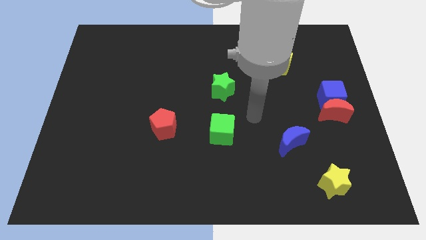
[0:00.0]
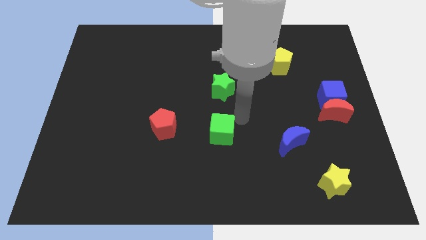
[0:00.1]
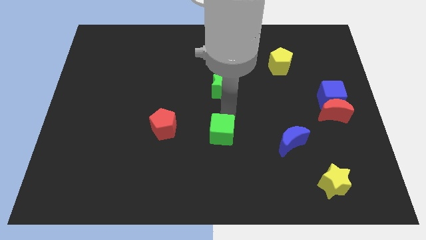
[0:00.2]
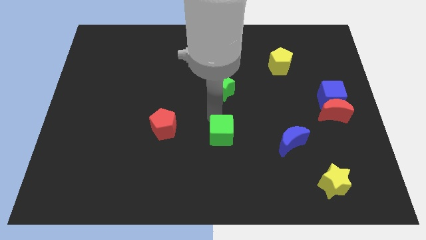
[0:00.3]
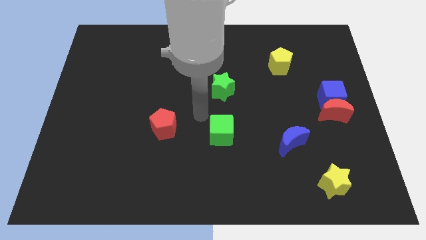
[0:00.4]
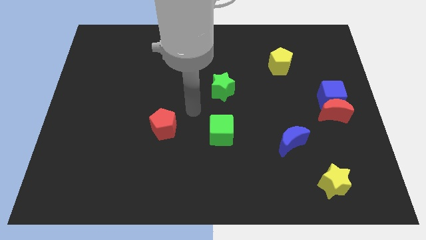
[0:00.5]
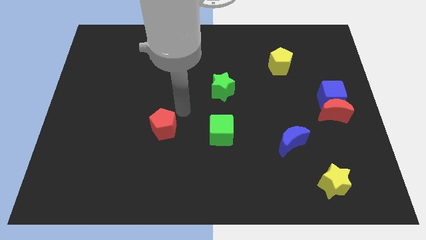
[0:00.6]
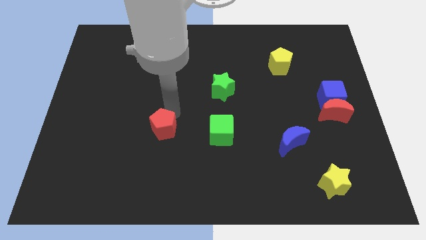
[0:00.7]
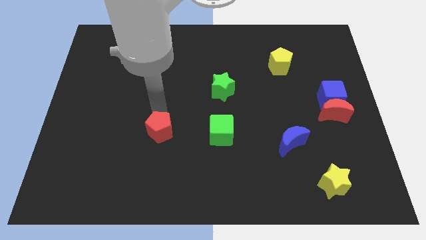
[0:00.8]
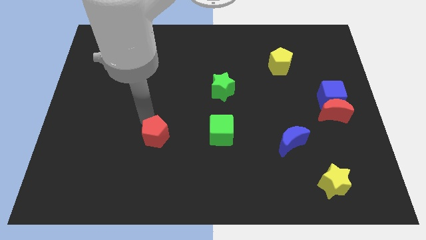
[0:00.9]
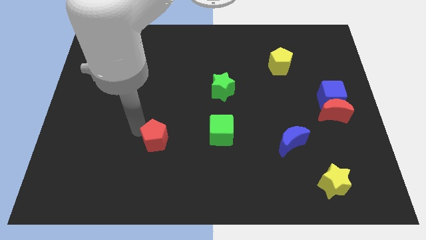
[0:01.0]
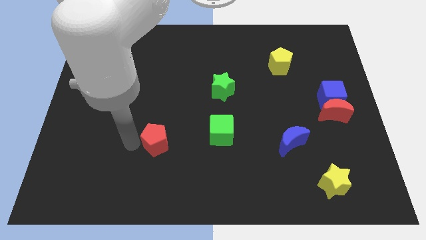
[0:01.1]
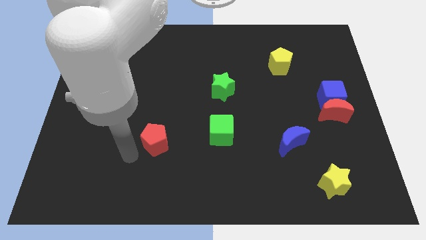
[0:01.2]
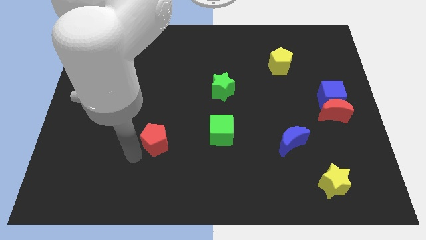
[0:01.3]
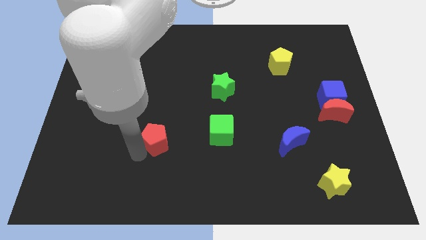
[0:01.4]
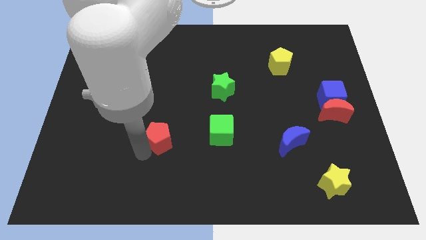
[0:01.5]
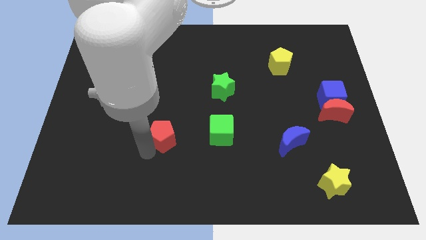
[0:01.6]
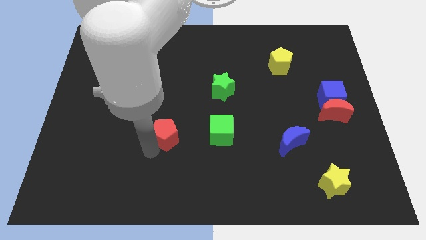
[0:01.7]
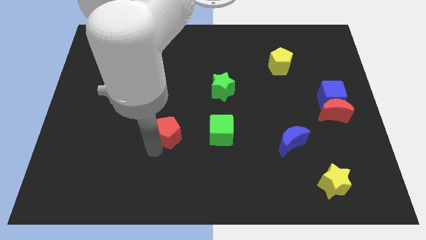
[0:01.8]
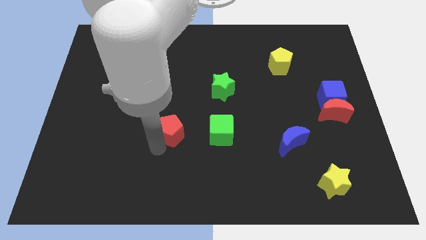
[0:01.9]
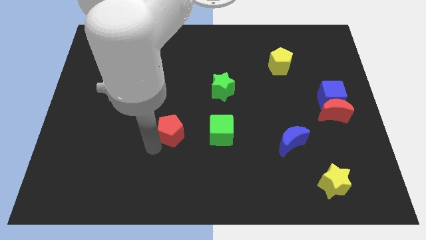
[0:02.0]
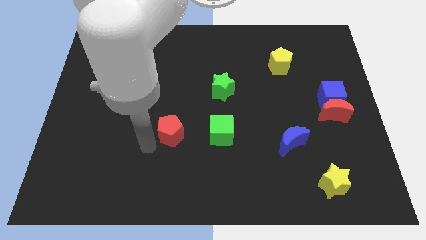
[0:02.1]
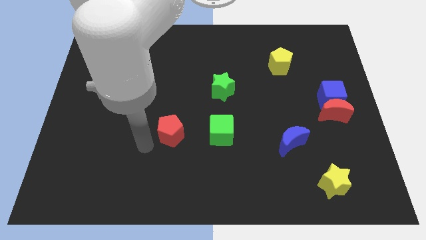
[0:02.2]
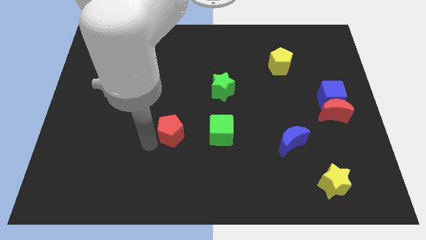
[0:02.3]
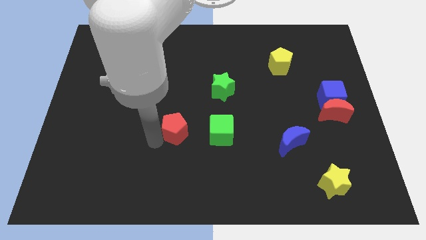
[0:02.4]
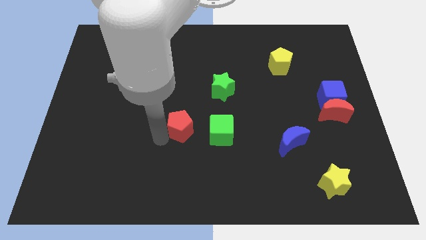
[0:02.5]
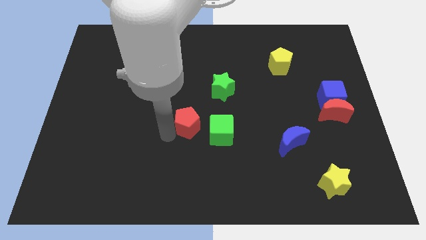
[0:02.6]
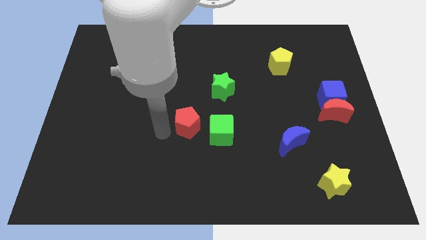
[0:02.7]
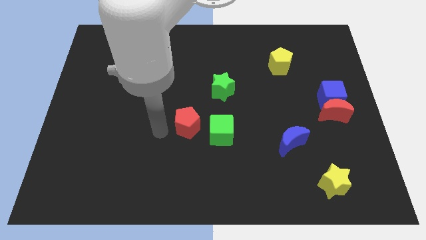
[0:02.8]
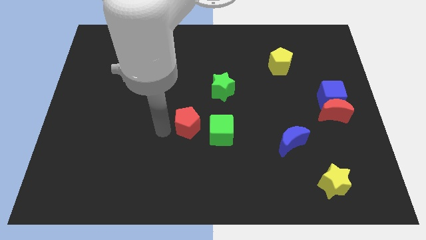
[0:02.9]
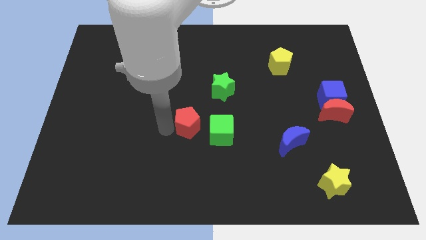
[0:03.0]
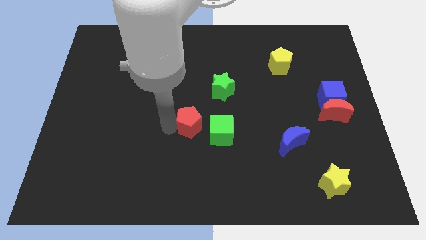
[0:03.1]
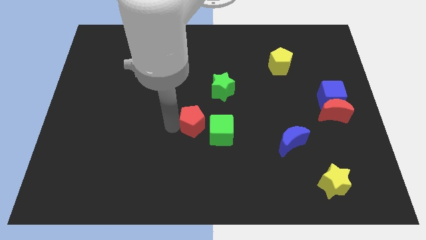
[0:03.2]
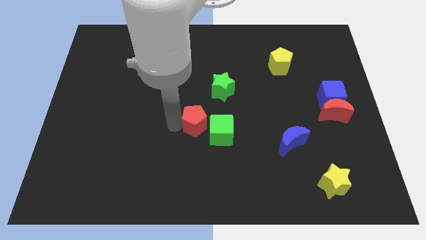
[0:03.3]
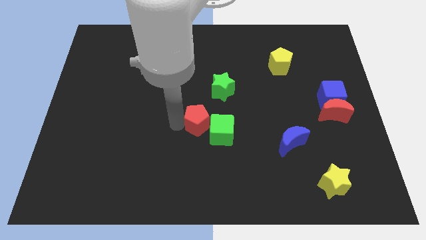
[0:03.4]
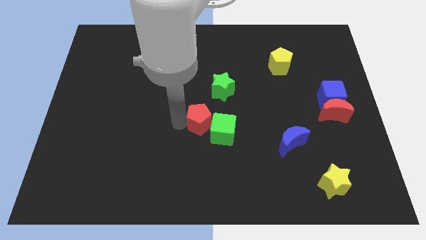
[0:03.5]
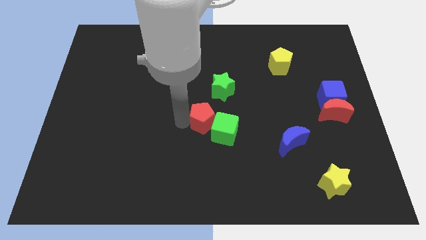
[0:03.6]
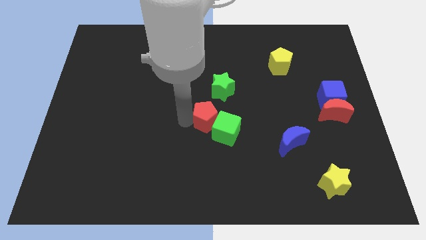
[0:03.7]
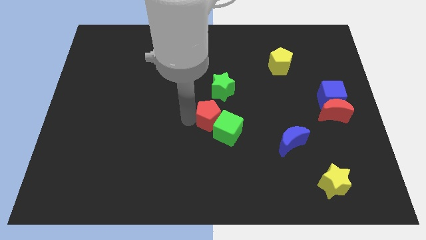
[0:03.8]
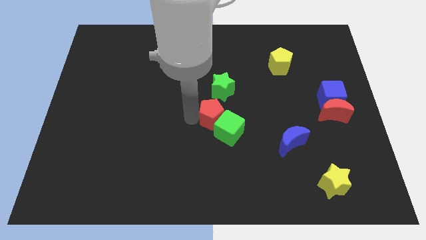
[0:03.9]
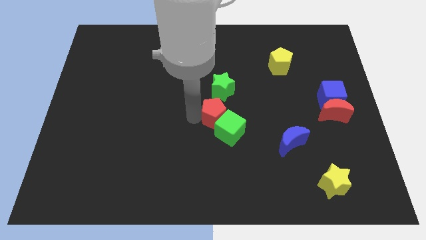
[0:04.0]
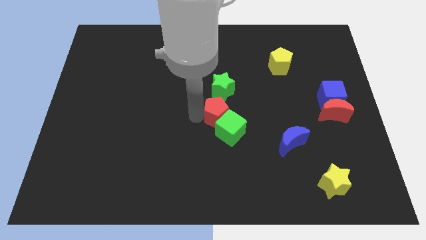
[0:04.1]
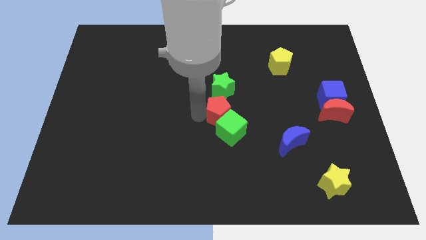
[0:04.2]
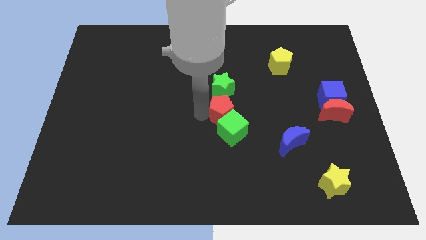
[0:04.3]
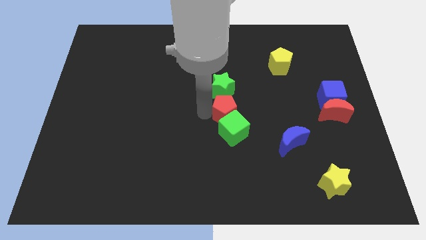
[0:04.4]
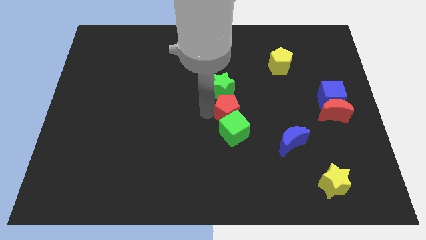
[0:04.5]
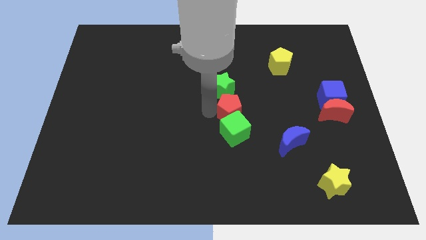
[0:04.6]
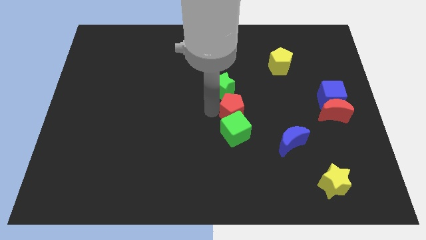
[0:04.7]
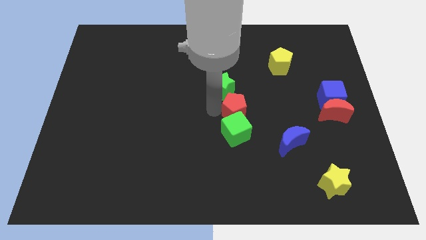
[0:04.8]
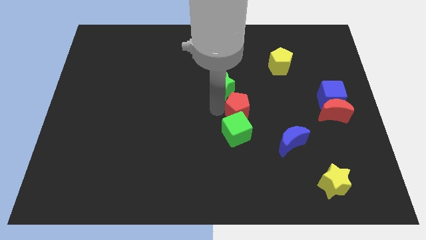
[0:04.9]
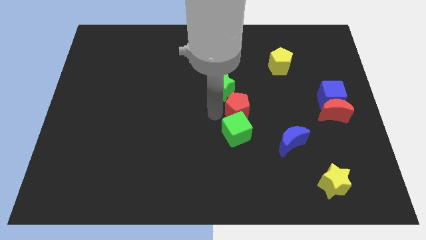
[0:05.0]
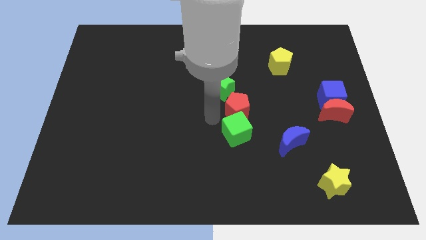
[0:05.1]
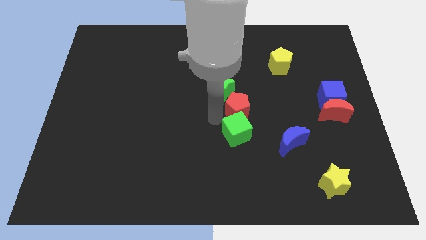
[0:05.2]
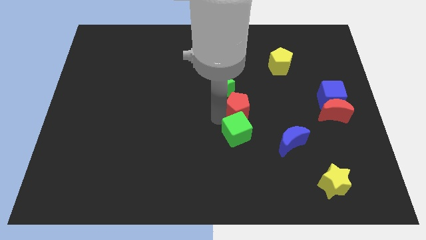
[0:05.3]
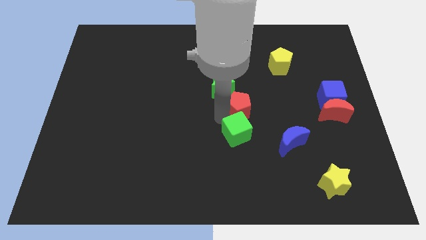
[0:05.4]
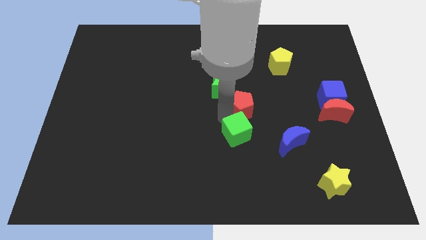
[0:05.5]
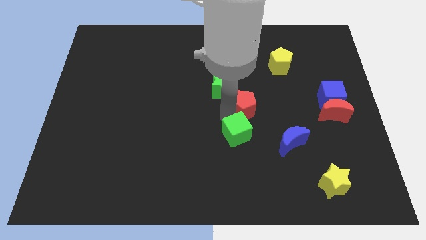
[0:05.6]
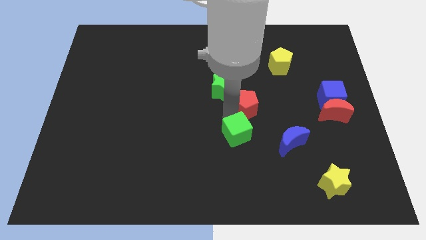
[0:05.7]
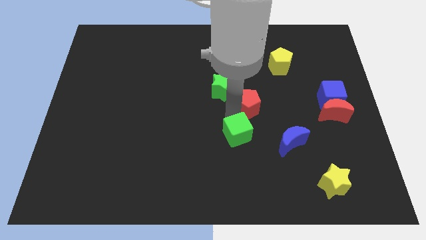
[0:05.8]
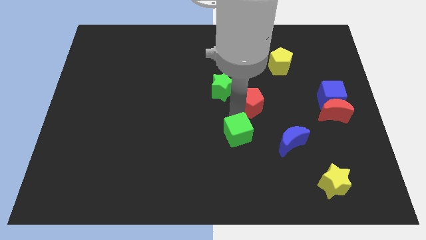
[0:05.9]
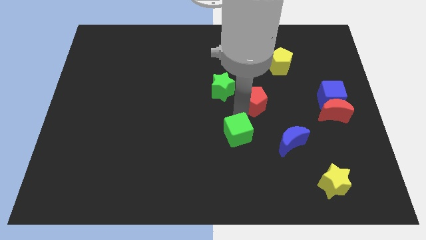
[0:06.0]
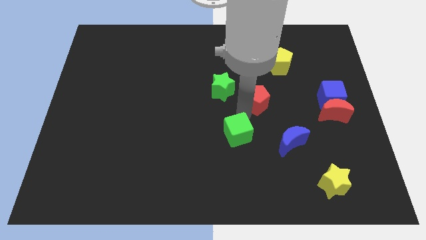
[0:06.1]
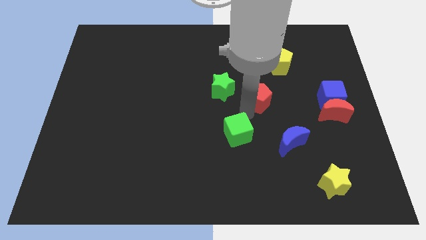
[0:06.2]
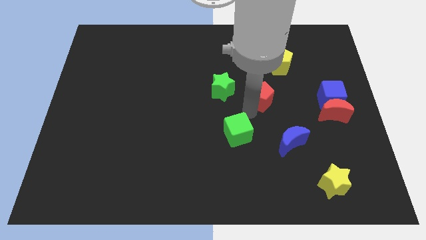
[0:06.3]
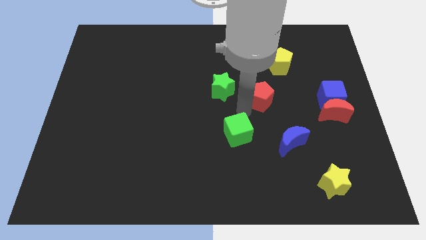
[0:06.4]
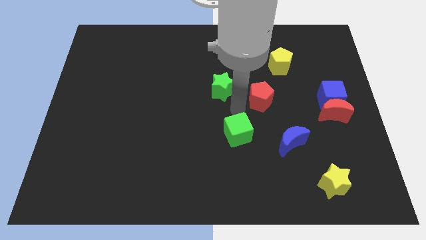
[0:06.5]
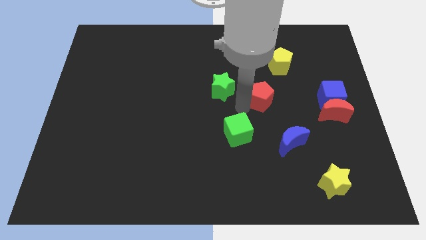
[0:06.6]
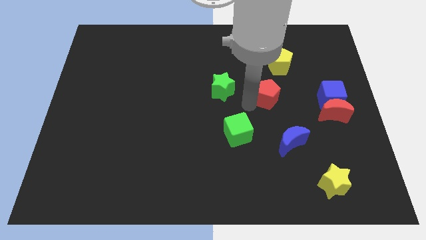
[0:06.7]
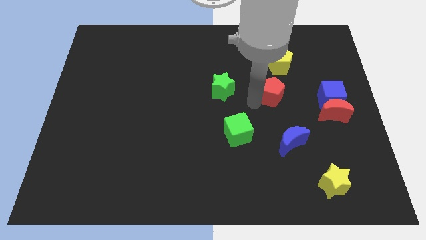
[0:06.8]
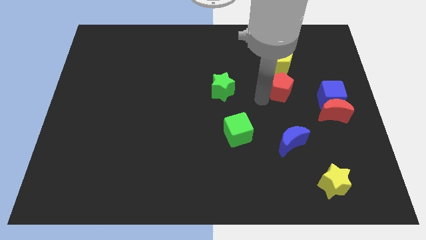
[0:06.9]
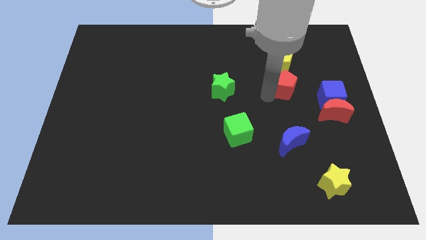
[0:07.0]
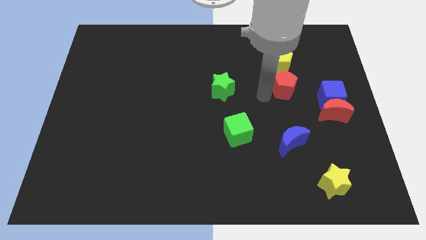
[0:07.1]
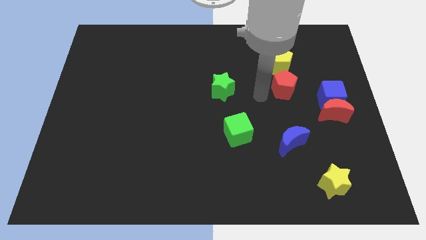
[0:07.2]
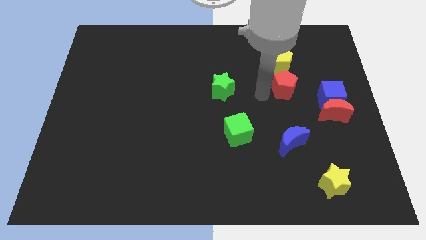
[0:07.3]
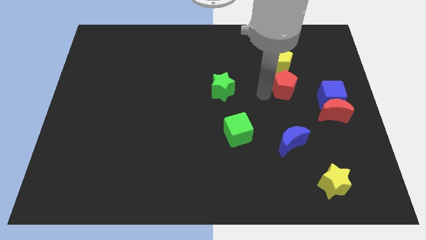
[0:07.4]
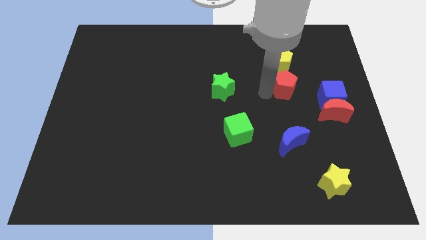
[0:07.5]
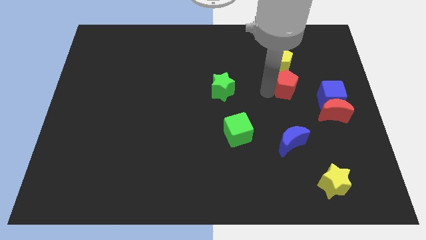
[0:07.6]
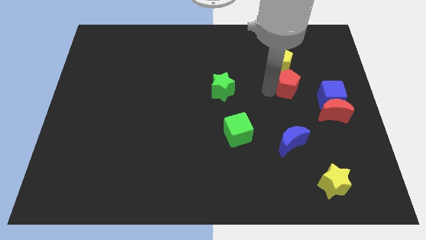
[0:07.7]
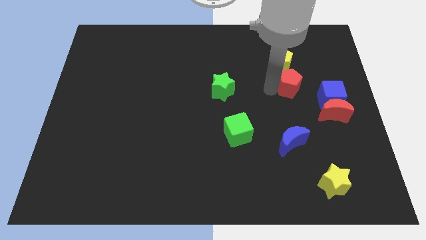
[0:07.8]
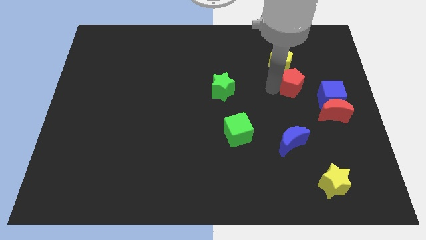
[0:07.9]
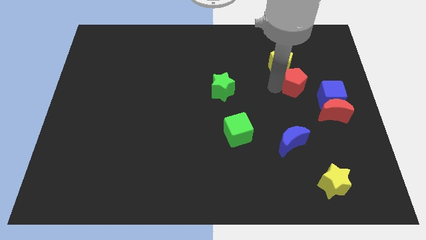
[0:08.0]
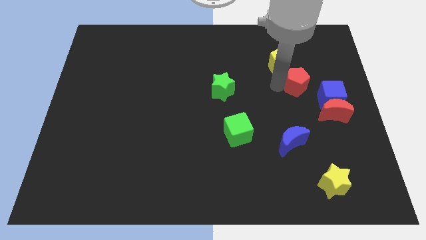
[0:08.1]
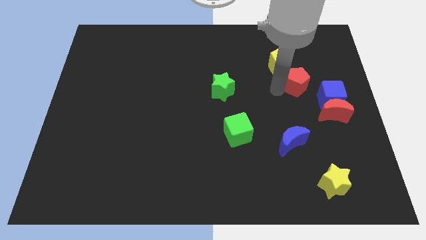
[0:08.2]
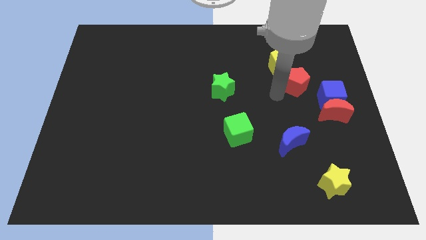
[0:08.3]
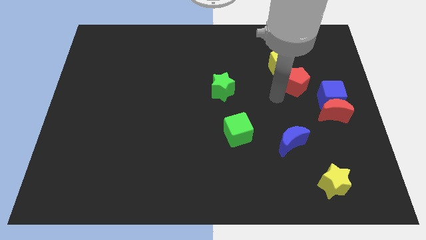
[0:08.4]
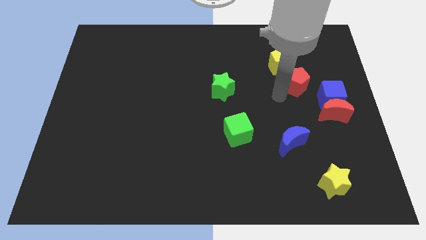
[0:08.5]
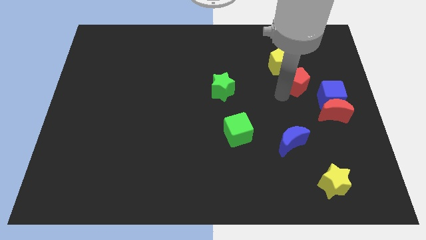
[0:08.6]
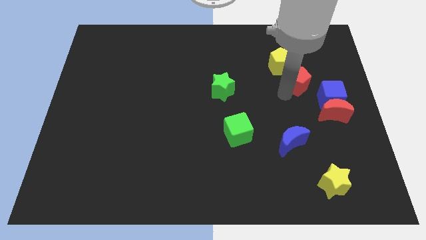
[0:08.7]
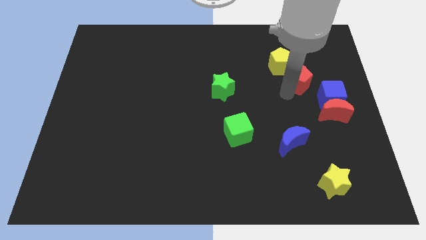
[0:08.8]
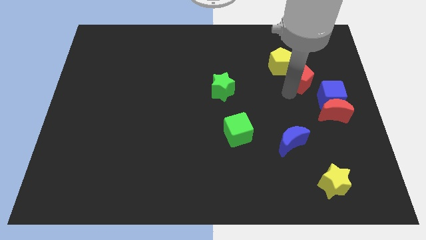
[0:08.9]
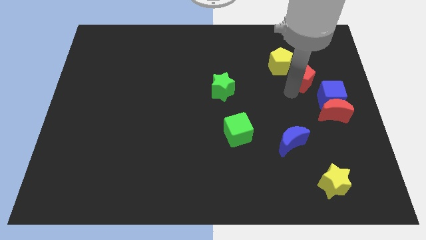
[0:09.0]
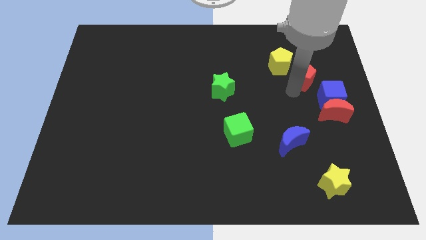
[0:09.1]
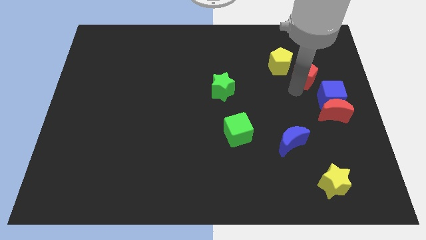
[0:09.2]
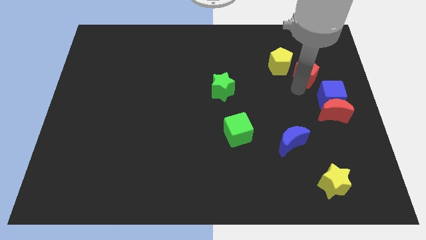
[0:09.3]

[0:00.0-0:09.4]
push the red pentagon to the top of the blue cube
